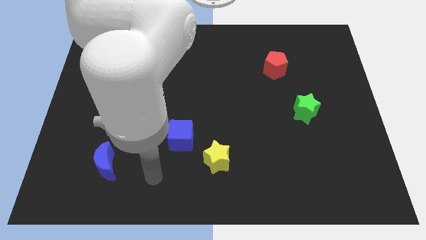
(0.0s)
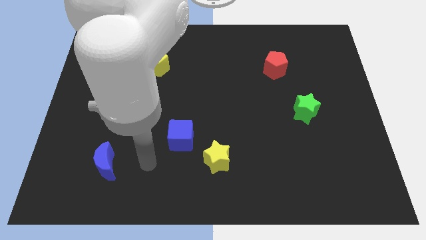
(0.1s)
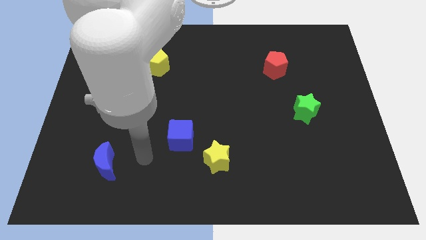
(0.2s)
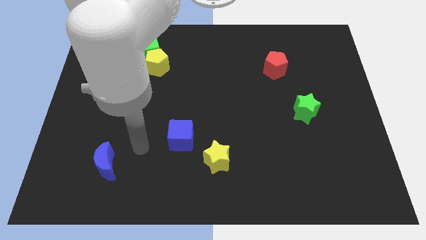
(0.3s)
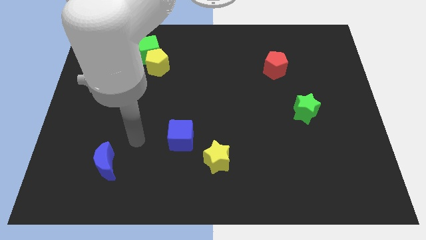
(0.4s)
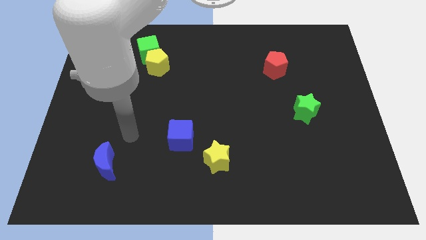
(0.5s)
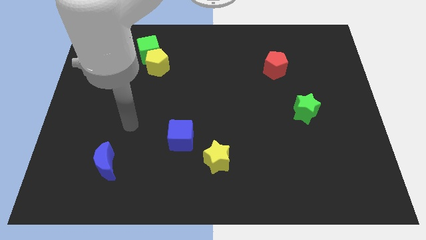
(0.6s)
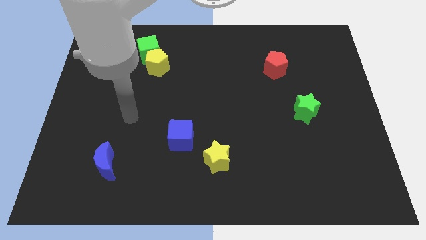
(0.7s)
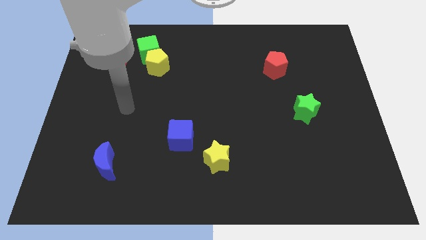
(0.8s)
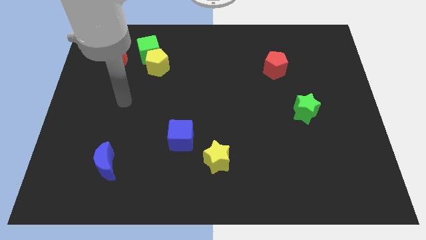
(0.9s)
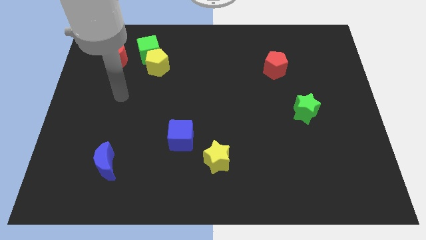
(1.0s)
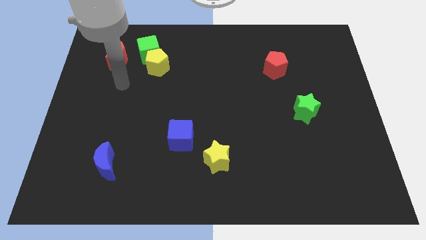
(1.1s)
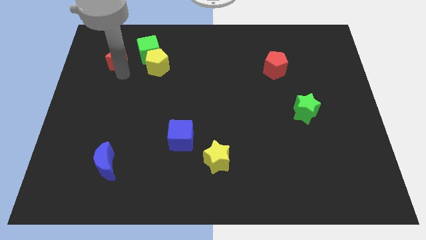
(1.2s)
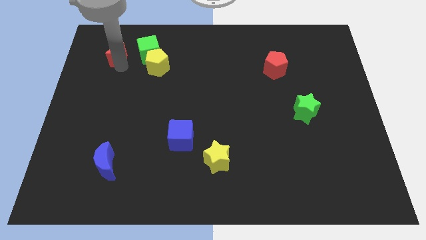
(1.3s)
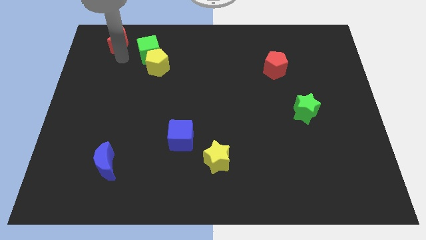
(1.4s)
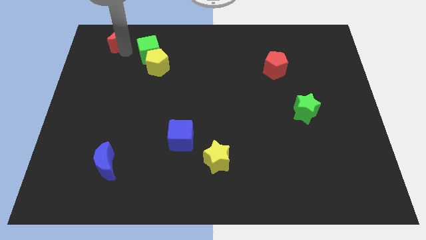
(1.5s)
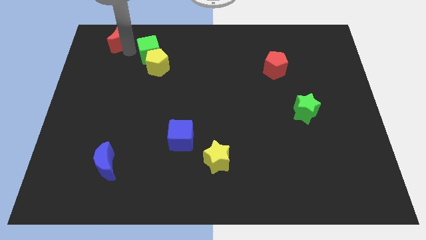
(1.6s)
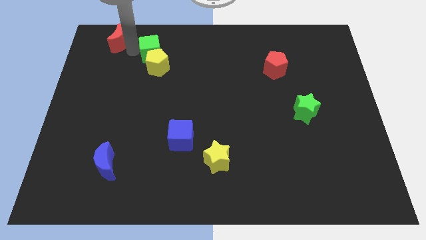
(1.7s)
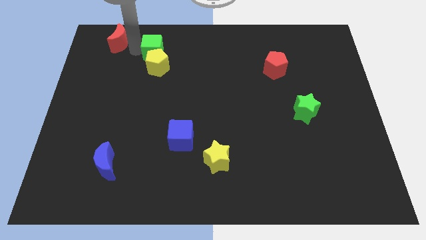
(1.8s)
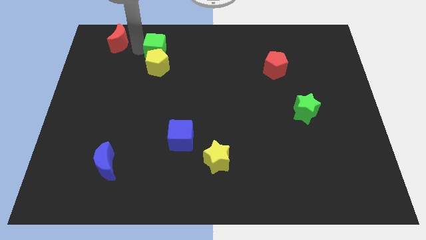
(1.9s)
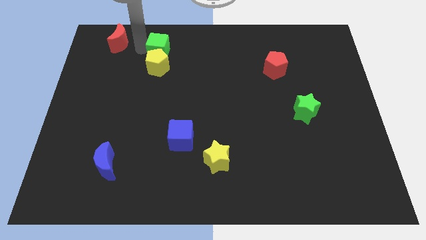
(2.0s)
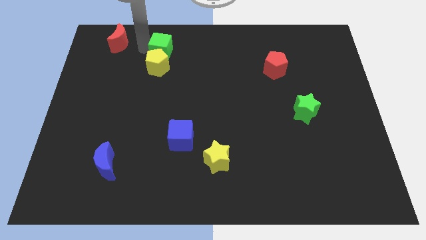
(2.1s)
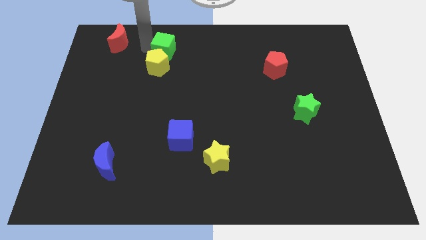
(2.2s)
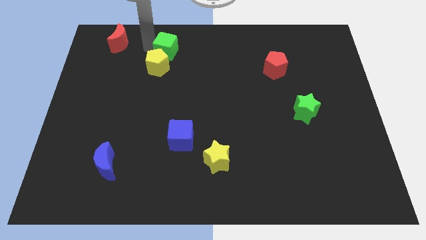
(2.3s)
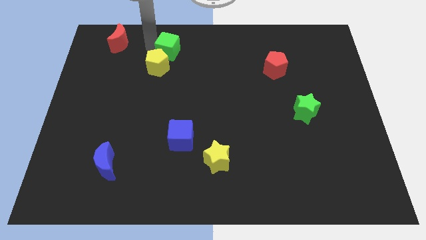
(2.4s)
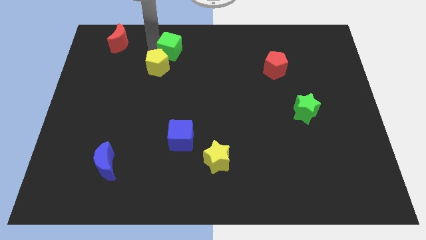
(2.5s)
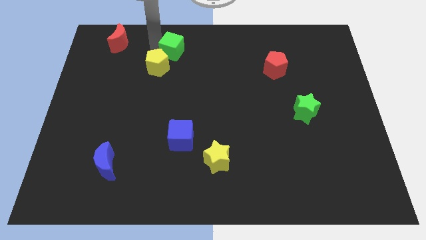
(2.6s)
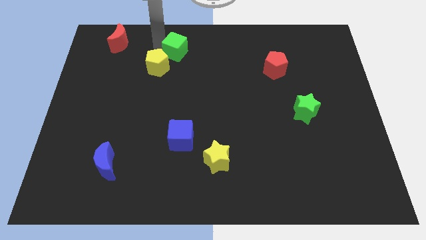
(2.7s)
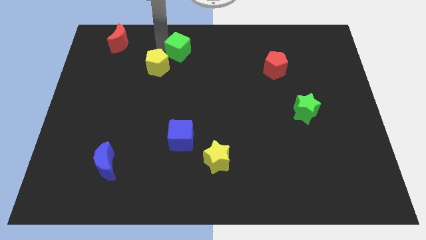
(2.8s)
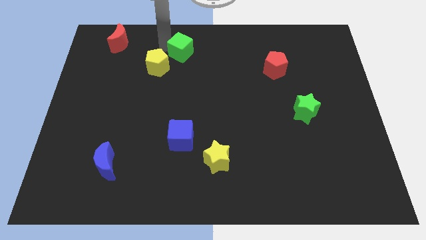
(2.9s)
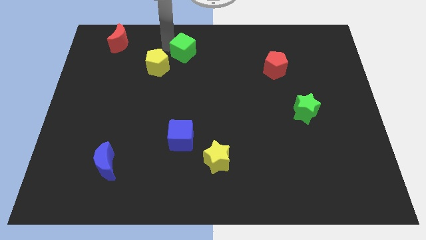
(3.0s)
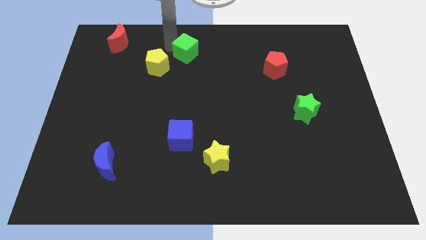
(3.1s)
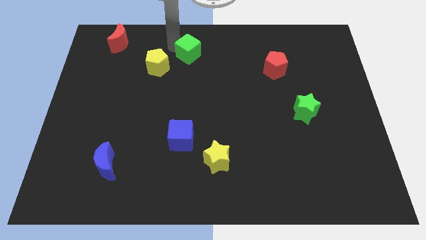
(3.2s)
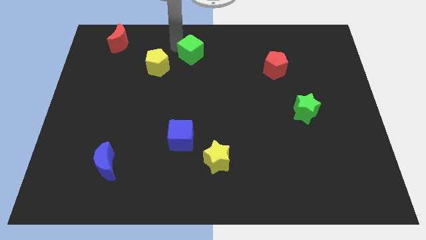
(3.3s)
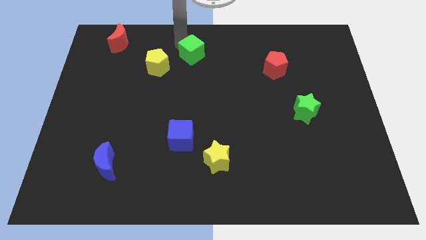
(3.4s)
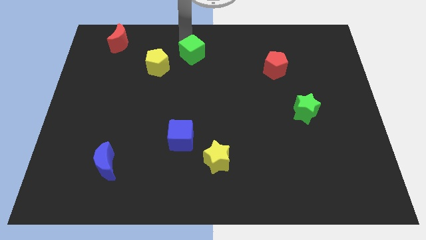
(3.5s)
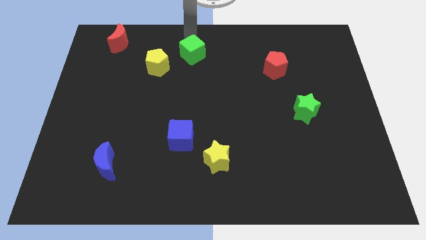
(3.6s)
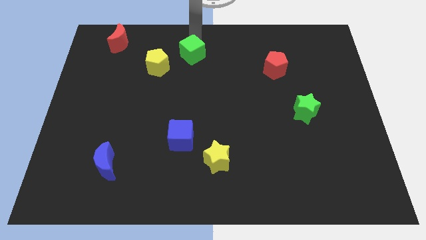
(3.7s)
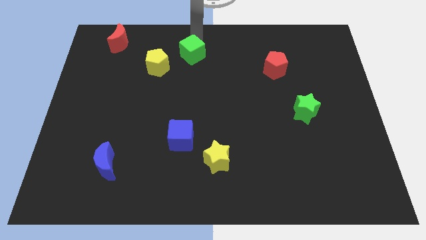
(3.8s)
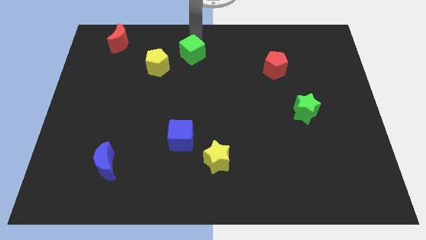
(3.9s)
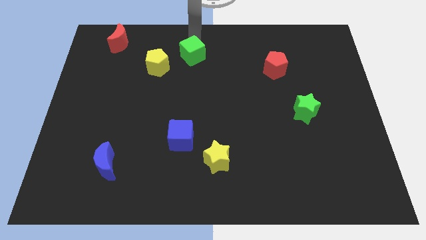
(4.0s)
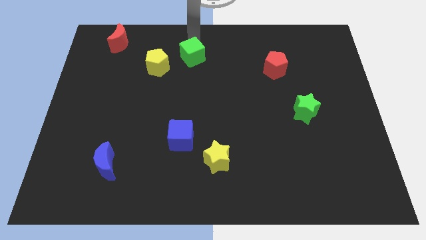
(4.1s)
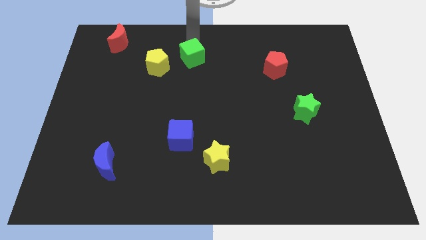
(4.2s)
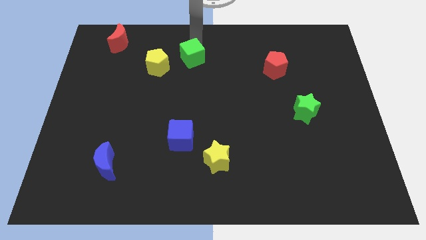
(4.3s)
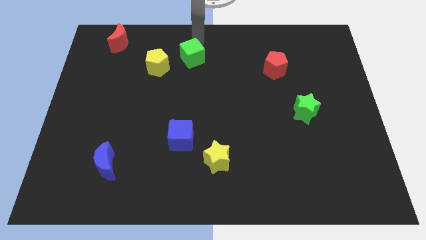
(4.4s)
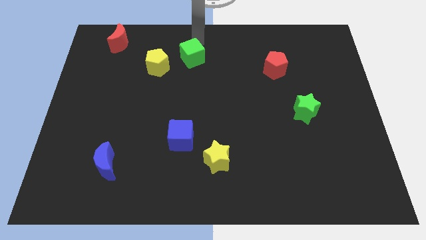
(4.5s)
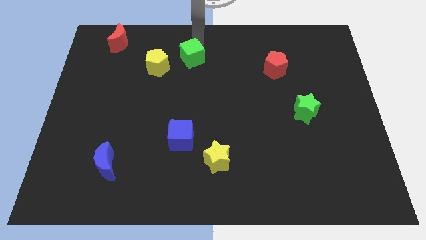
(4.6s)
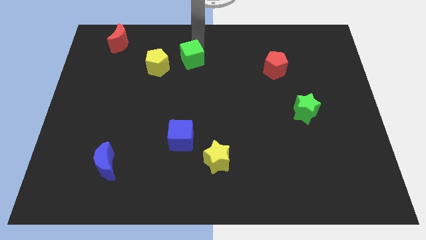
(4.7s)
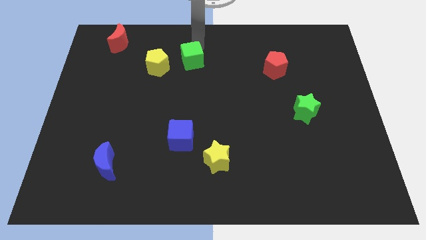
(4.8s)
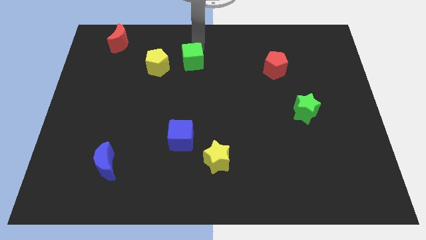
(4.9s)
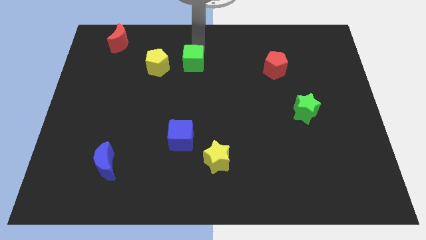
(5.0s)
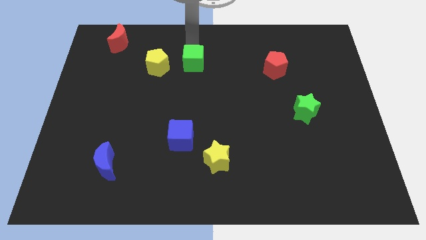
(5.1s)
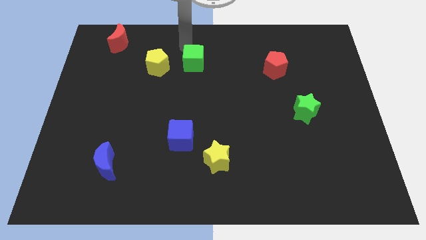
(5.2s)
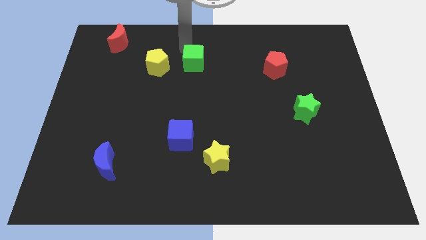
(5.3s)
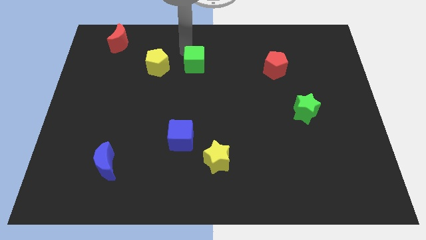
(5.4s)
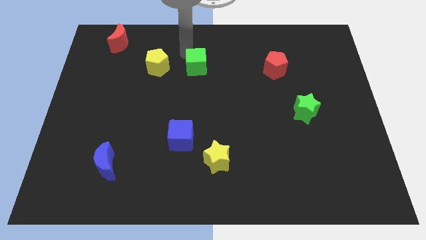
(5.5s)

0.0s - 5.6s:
move the green cube to the middle

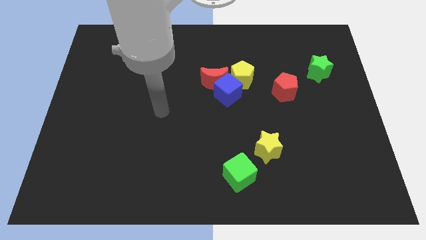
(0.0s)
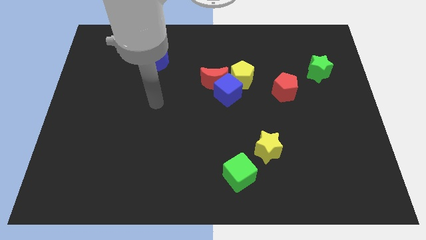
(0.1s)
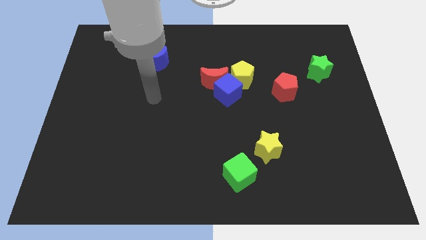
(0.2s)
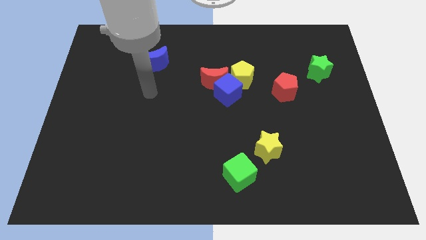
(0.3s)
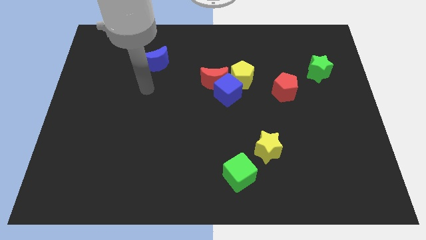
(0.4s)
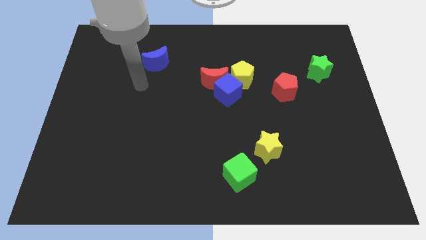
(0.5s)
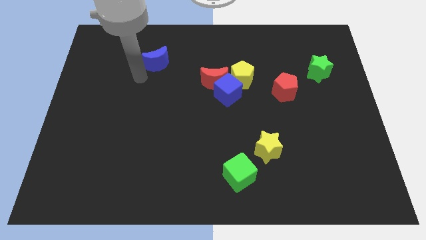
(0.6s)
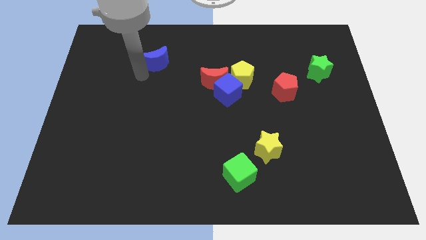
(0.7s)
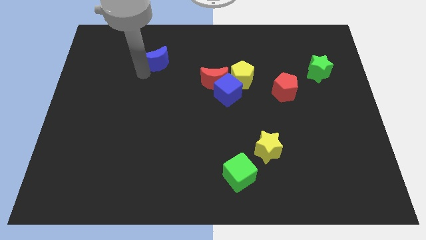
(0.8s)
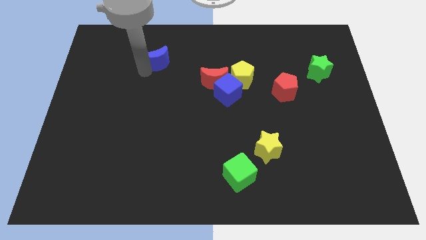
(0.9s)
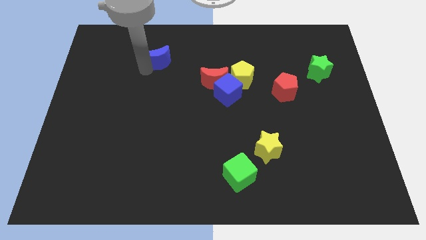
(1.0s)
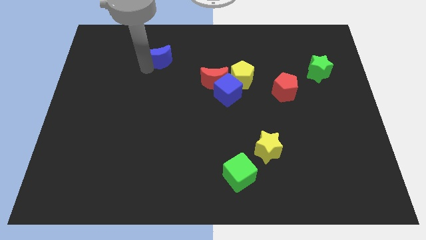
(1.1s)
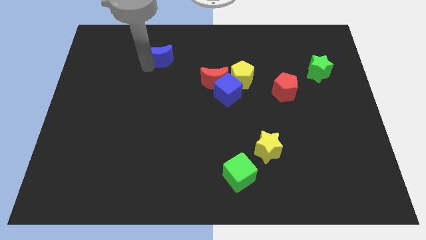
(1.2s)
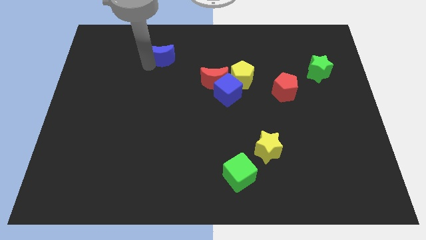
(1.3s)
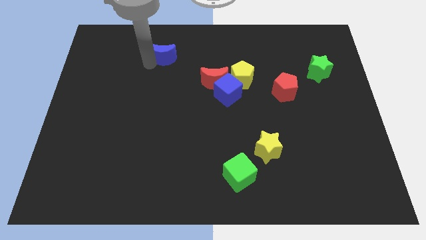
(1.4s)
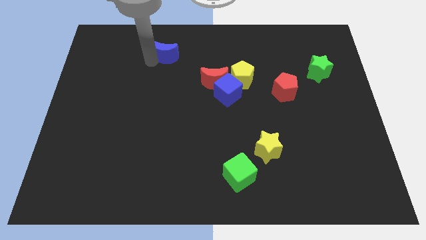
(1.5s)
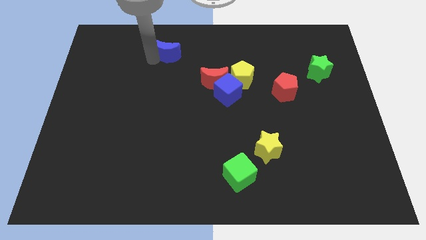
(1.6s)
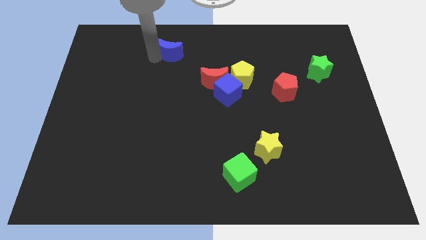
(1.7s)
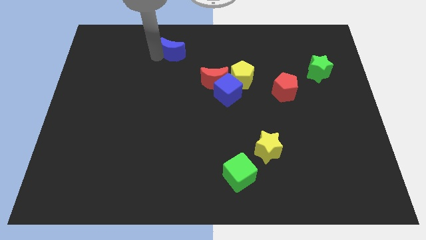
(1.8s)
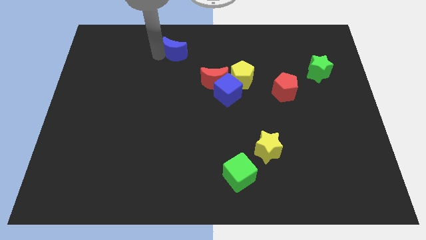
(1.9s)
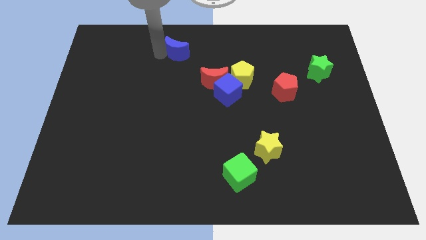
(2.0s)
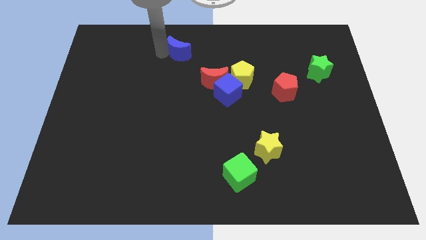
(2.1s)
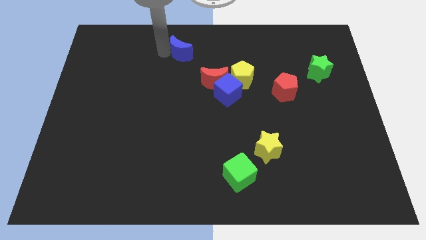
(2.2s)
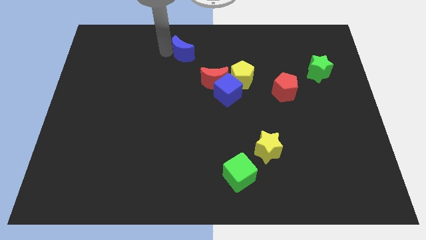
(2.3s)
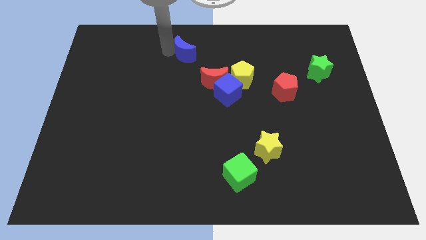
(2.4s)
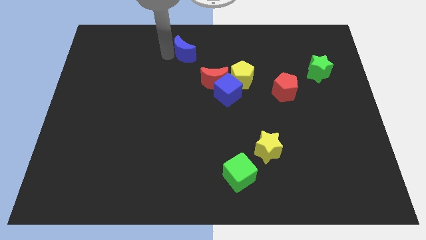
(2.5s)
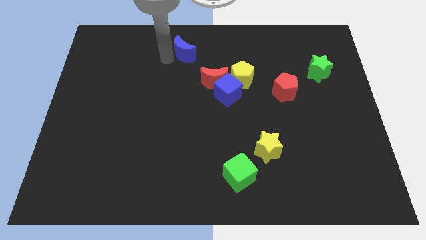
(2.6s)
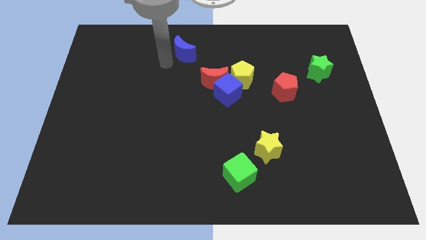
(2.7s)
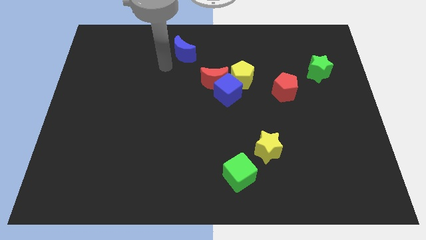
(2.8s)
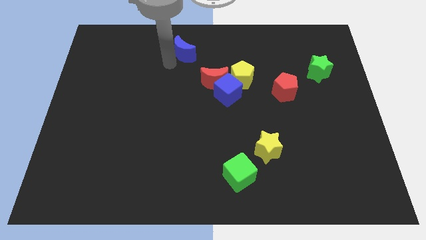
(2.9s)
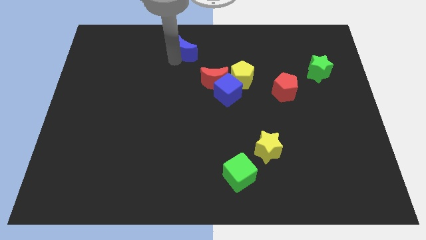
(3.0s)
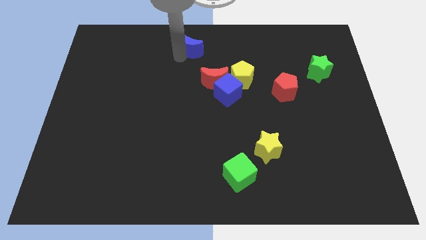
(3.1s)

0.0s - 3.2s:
move the blue moon to the top side
